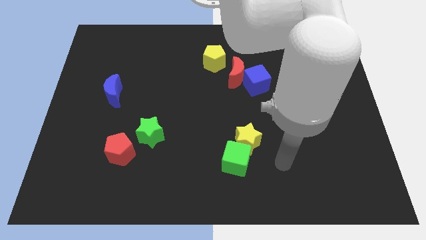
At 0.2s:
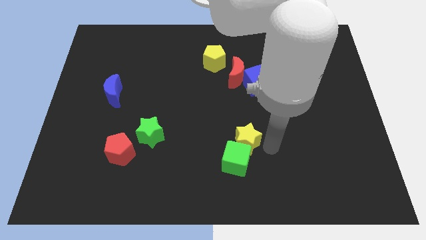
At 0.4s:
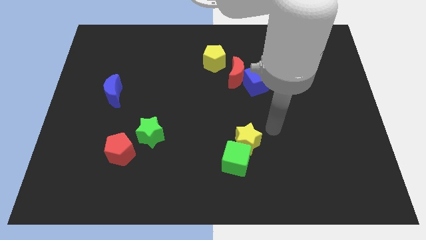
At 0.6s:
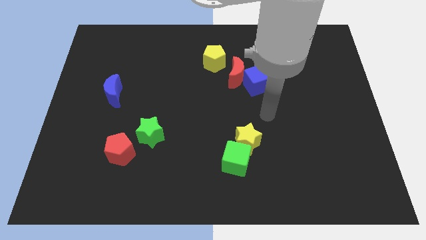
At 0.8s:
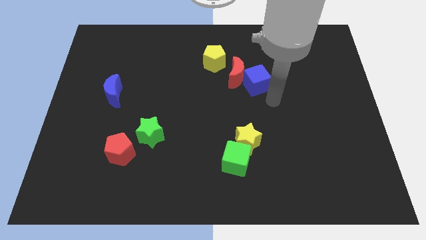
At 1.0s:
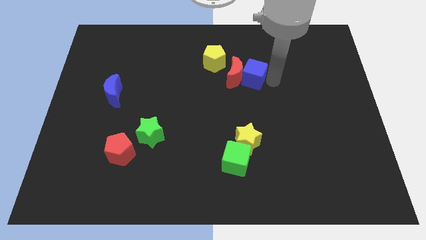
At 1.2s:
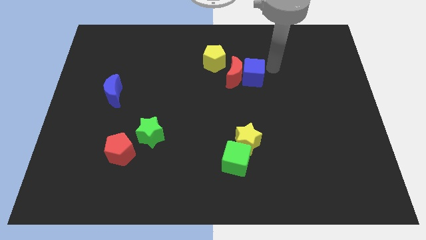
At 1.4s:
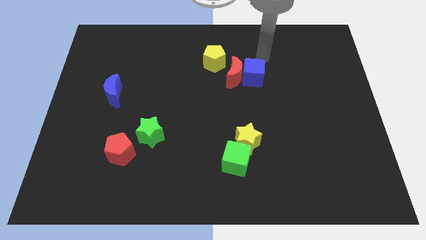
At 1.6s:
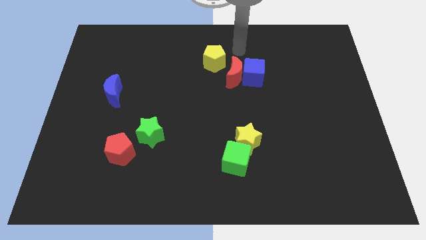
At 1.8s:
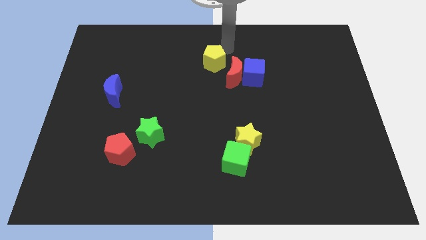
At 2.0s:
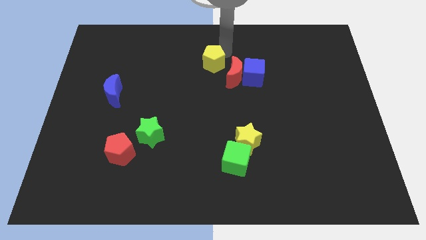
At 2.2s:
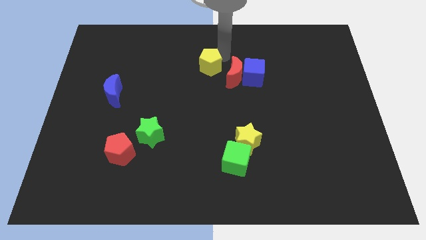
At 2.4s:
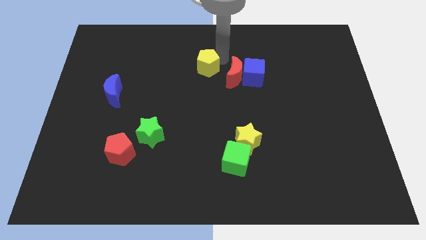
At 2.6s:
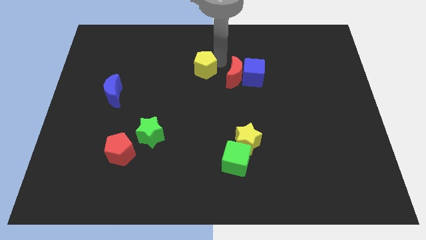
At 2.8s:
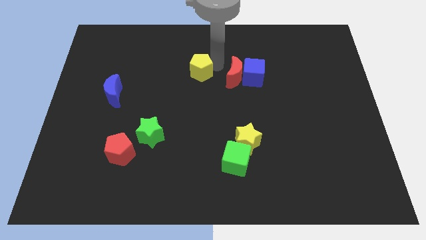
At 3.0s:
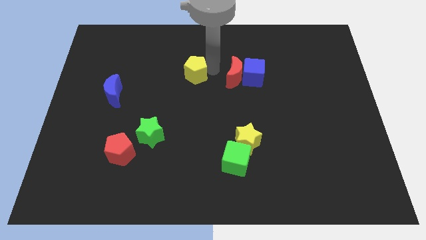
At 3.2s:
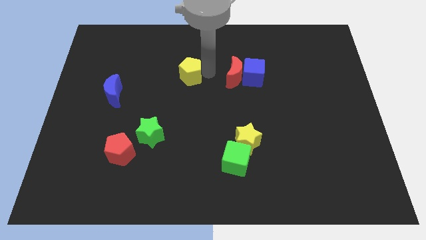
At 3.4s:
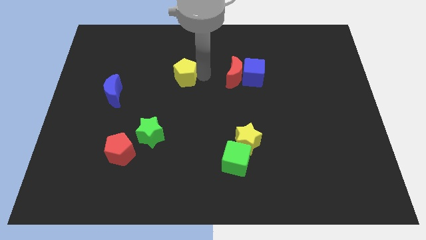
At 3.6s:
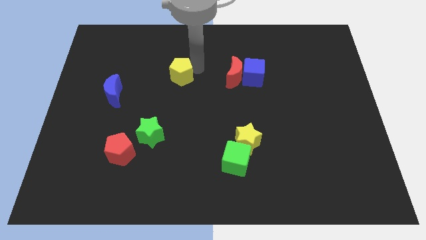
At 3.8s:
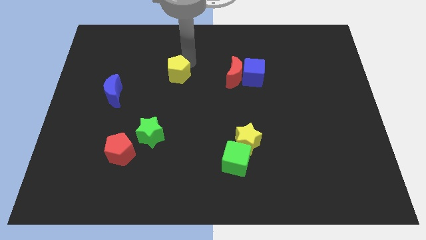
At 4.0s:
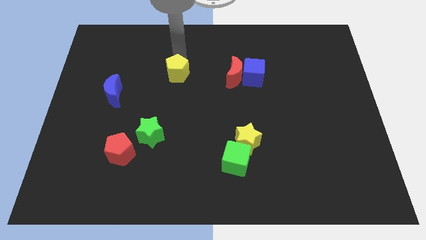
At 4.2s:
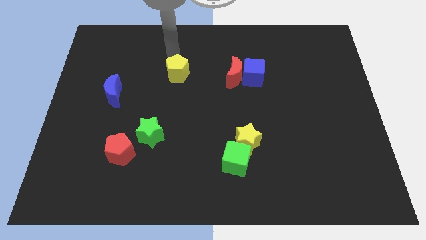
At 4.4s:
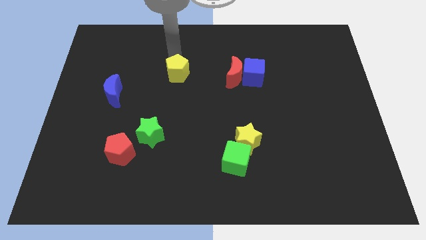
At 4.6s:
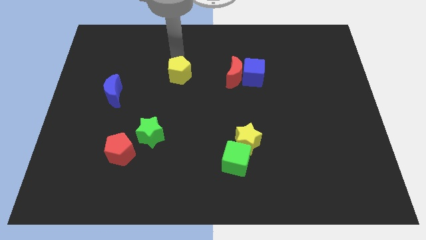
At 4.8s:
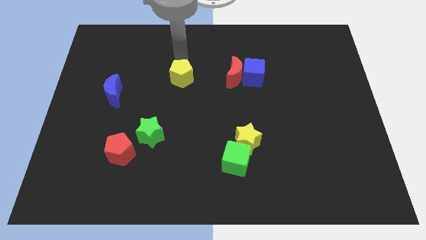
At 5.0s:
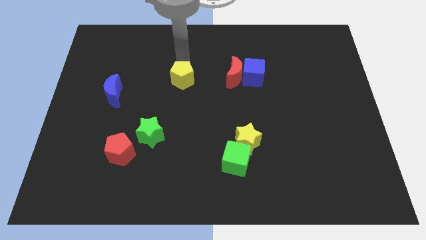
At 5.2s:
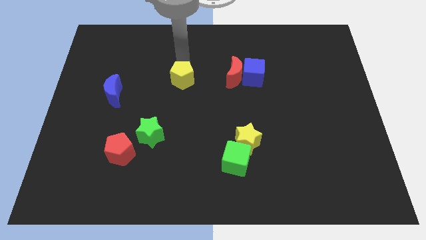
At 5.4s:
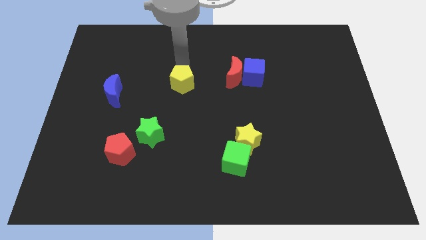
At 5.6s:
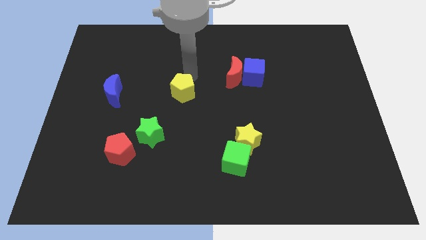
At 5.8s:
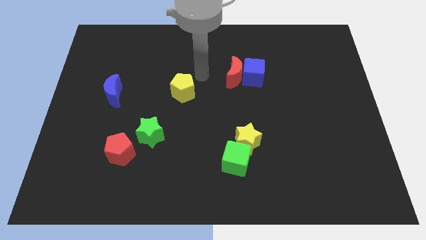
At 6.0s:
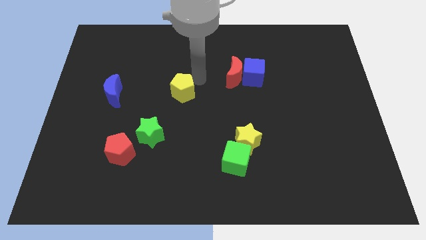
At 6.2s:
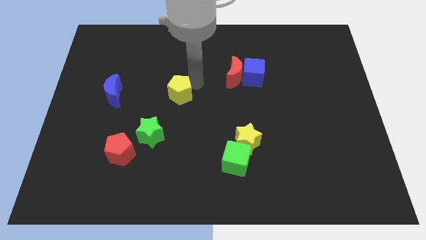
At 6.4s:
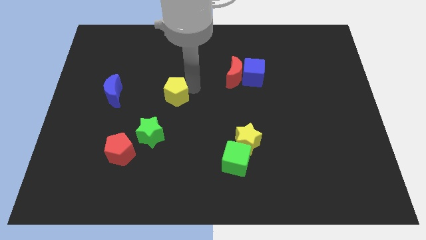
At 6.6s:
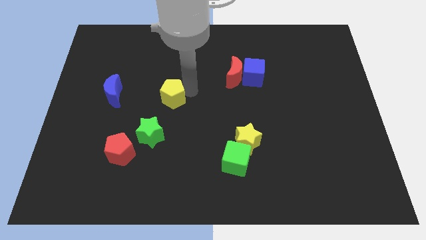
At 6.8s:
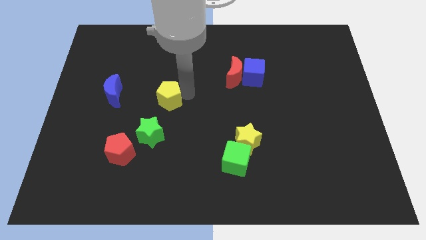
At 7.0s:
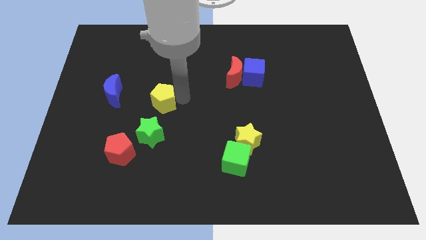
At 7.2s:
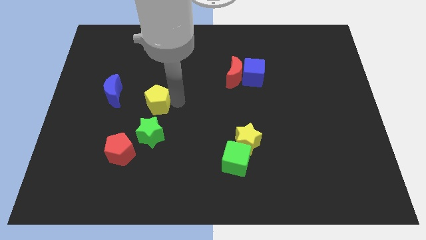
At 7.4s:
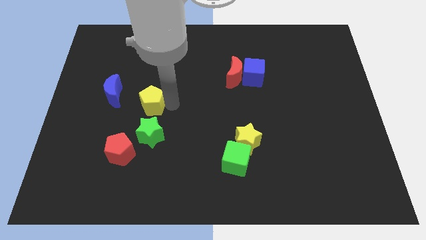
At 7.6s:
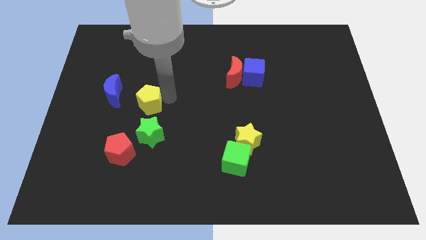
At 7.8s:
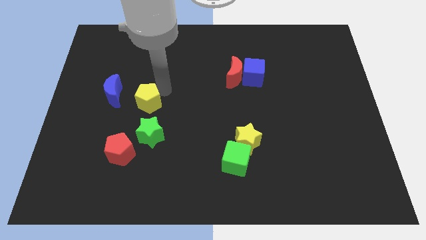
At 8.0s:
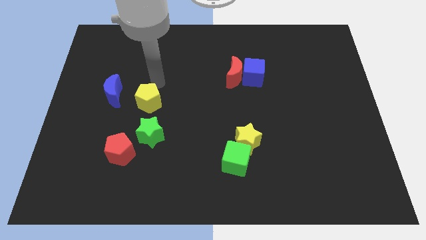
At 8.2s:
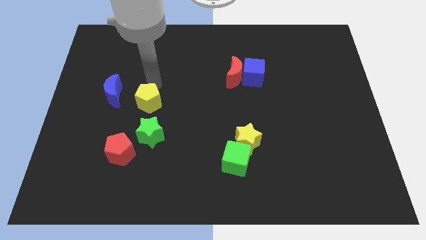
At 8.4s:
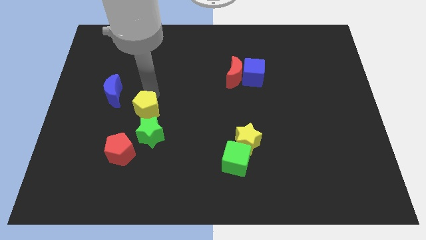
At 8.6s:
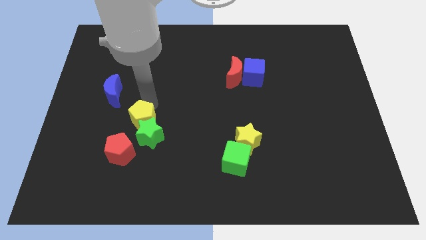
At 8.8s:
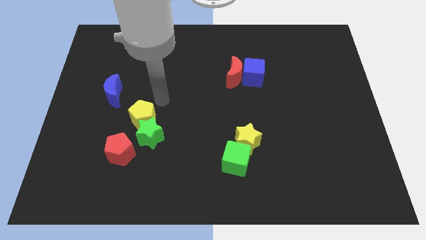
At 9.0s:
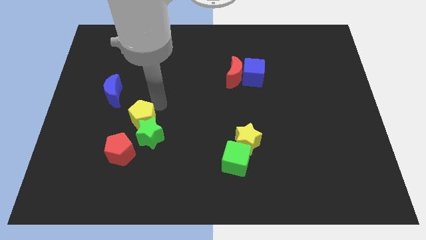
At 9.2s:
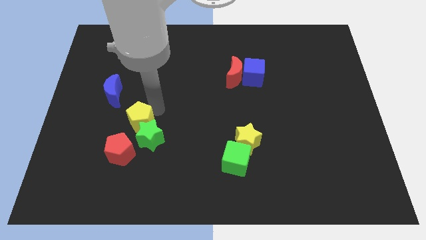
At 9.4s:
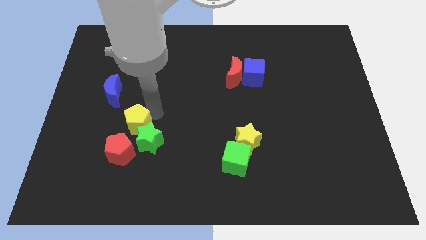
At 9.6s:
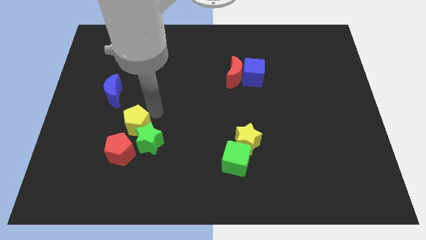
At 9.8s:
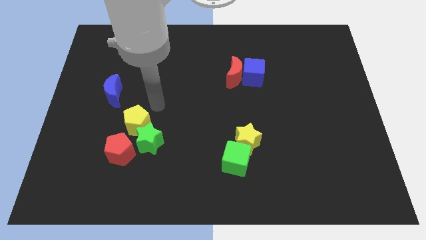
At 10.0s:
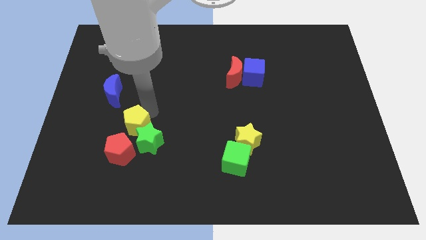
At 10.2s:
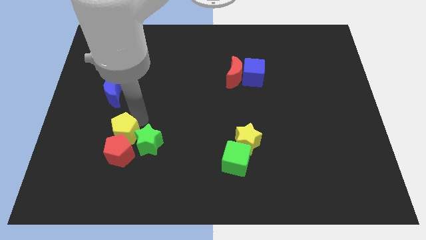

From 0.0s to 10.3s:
slide the yellow pentagon next to the red pentagon

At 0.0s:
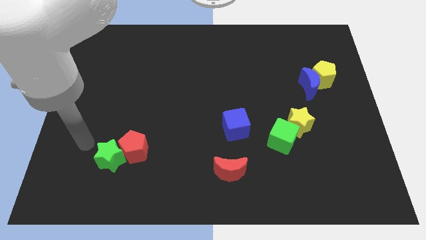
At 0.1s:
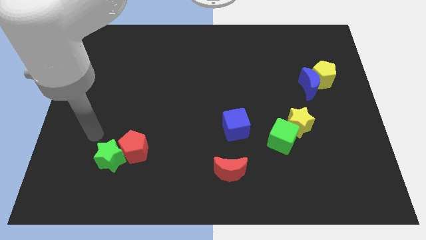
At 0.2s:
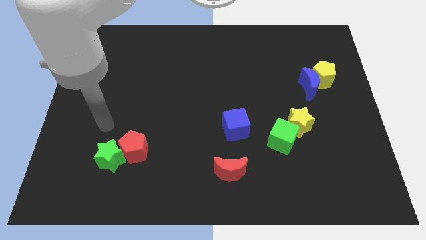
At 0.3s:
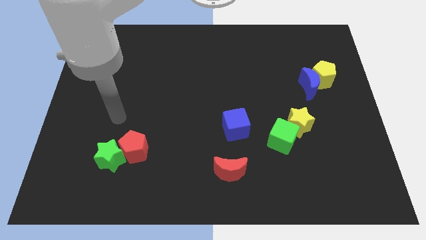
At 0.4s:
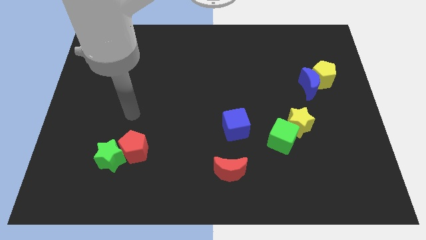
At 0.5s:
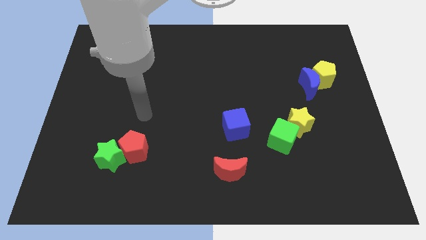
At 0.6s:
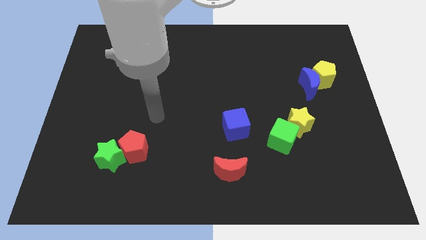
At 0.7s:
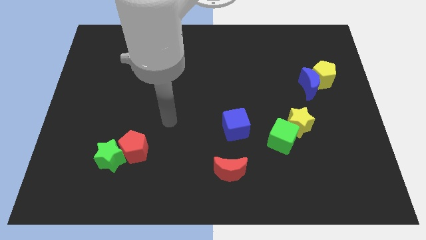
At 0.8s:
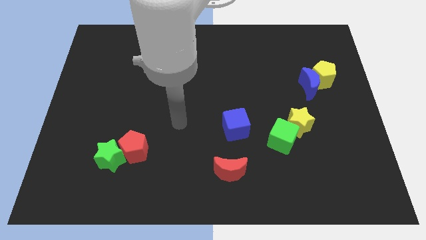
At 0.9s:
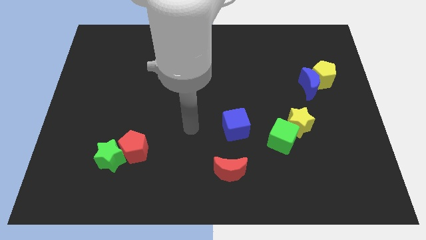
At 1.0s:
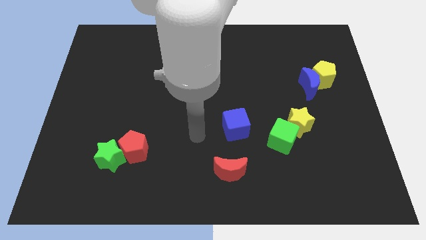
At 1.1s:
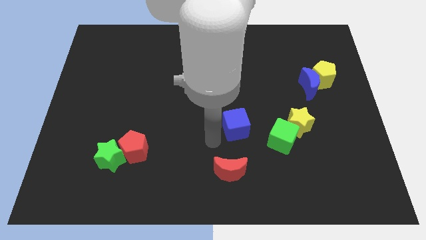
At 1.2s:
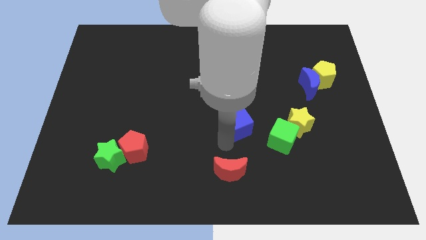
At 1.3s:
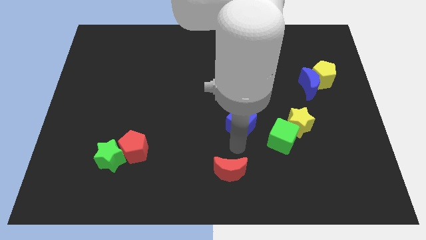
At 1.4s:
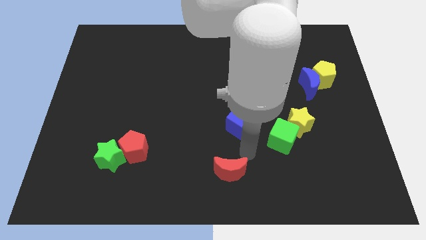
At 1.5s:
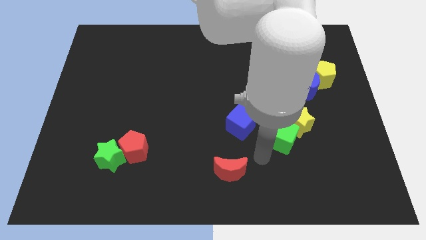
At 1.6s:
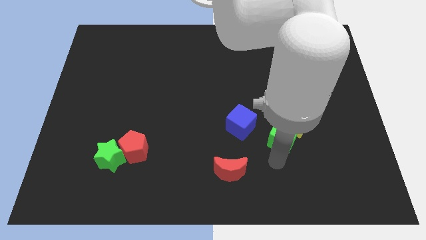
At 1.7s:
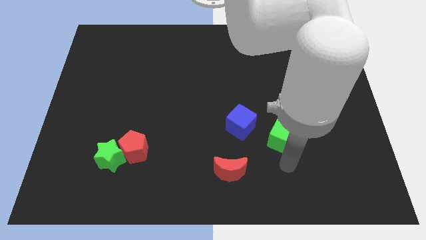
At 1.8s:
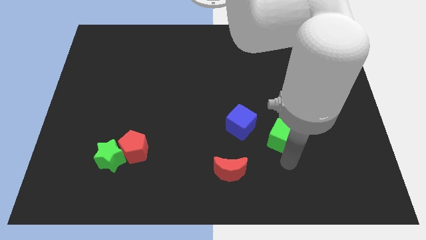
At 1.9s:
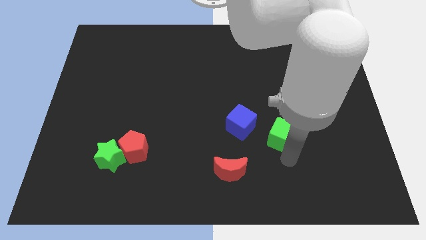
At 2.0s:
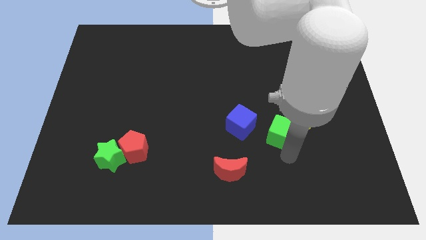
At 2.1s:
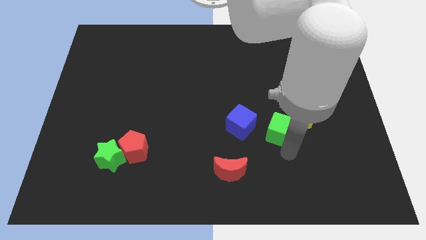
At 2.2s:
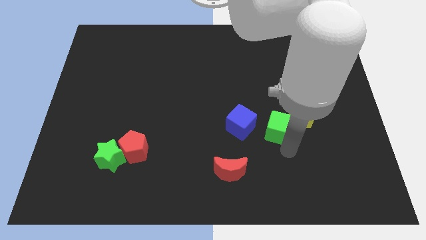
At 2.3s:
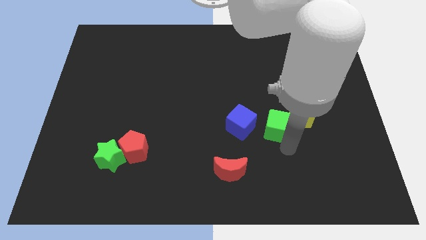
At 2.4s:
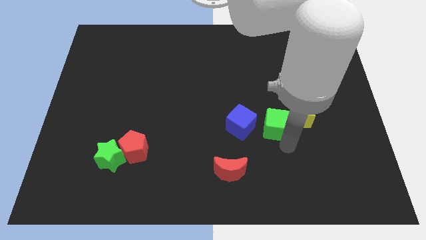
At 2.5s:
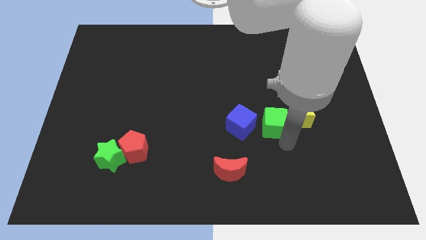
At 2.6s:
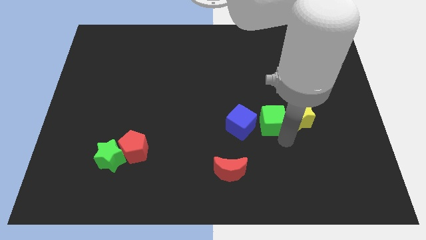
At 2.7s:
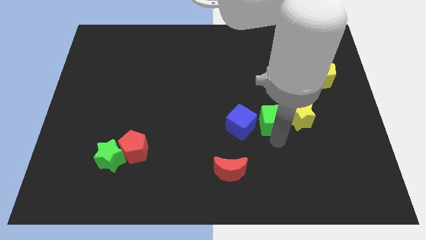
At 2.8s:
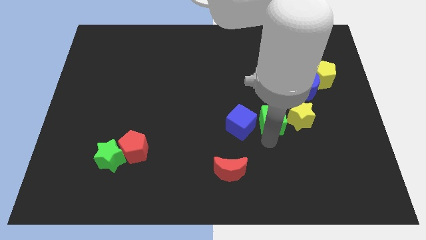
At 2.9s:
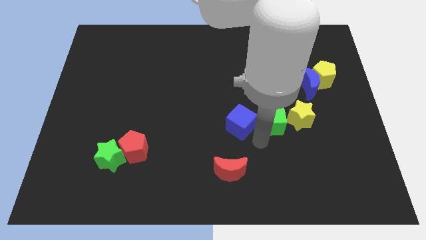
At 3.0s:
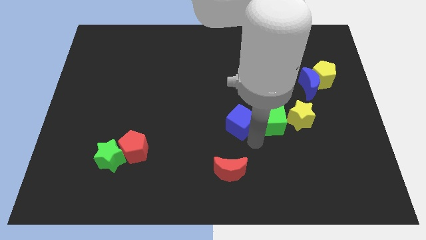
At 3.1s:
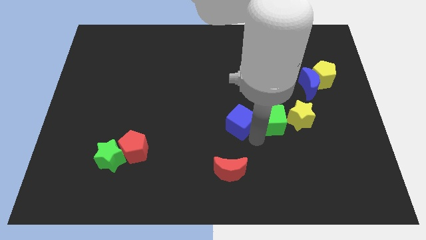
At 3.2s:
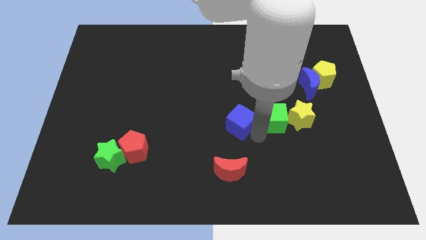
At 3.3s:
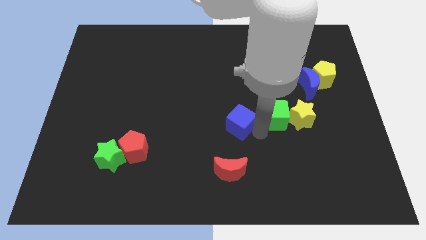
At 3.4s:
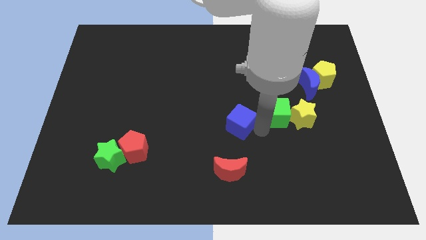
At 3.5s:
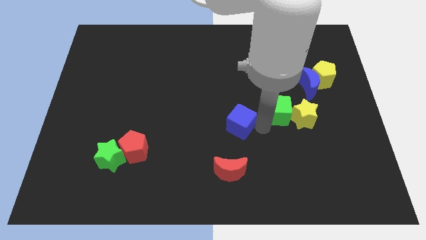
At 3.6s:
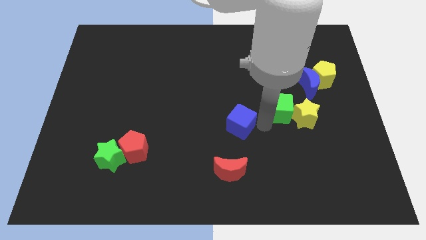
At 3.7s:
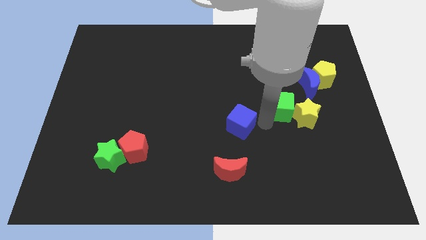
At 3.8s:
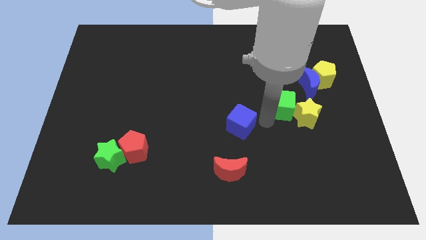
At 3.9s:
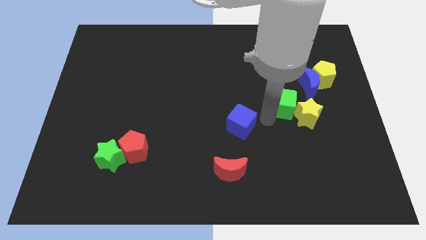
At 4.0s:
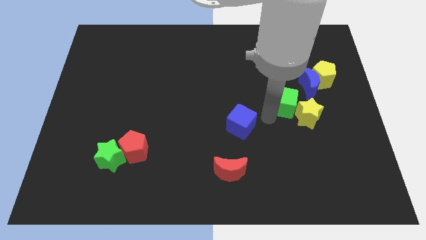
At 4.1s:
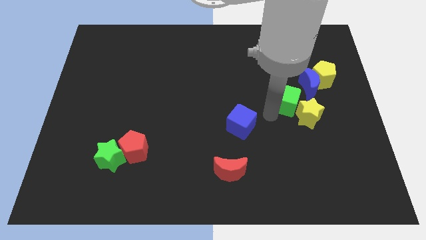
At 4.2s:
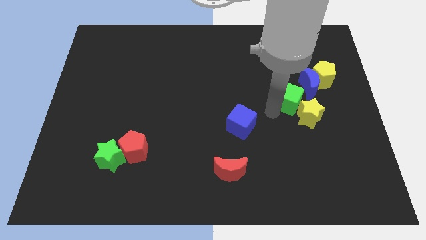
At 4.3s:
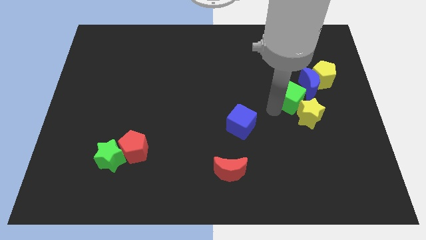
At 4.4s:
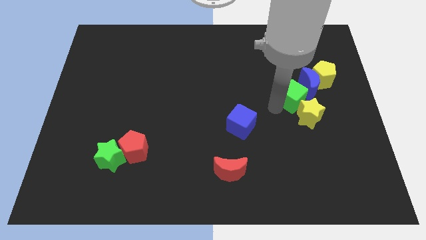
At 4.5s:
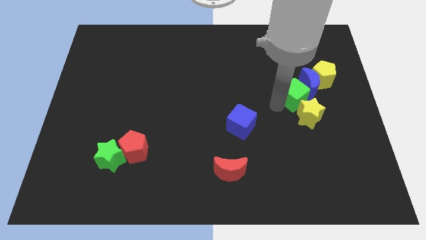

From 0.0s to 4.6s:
slide the green cube next to the blue moon
